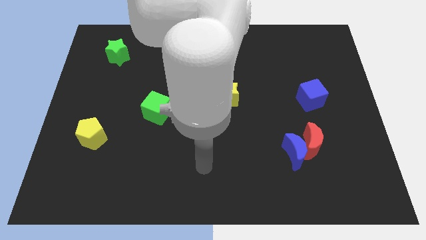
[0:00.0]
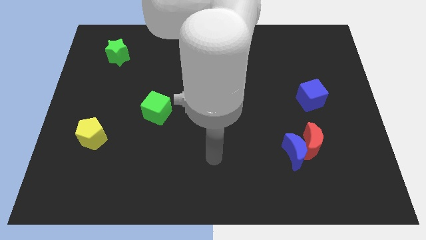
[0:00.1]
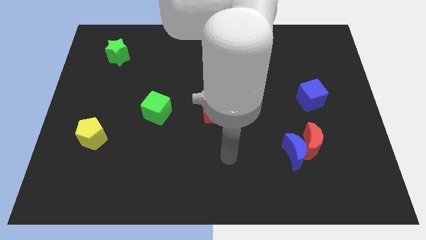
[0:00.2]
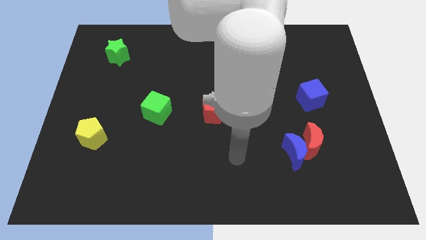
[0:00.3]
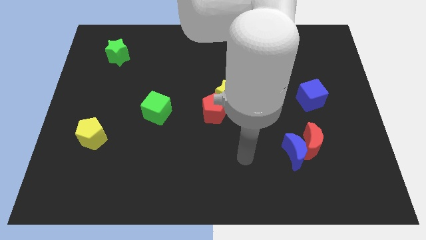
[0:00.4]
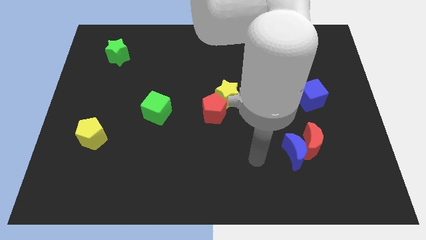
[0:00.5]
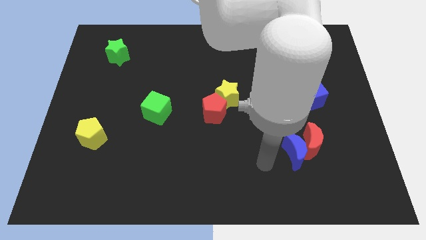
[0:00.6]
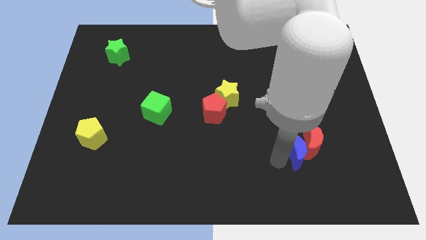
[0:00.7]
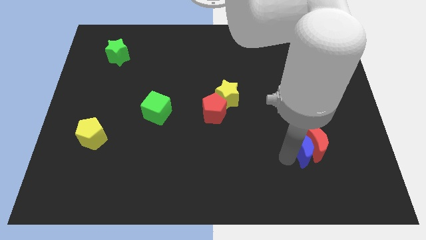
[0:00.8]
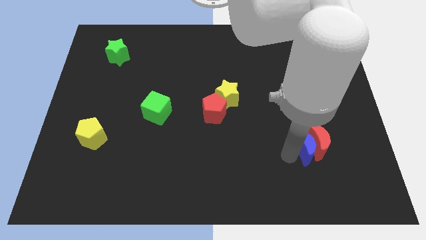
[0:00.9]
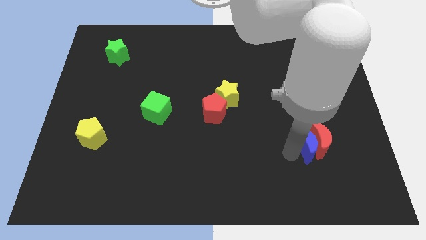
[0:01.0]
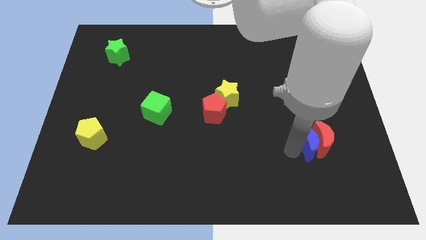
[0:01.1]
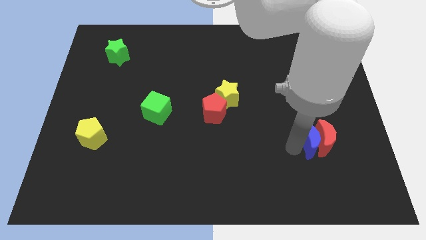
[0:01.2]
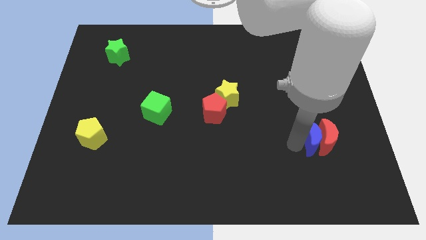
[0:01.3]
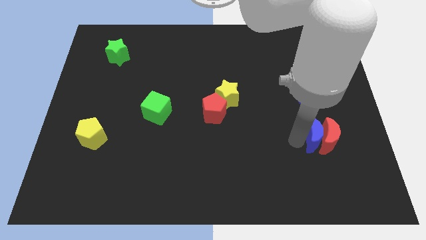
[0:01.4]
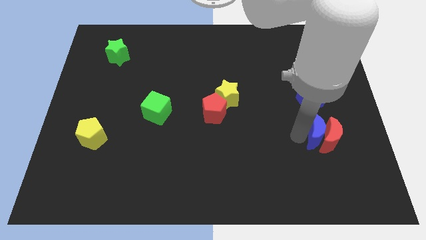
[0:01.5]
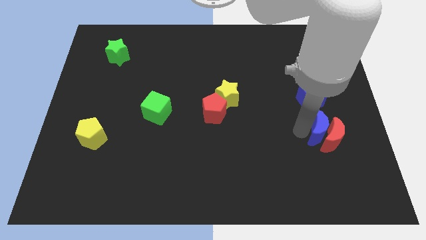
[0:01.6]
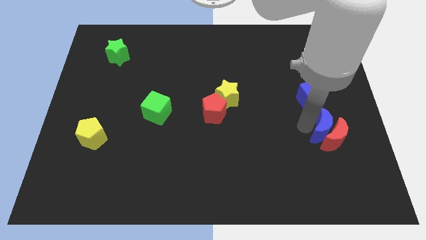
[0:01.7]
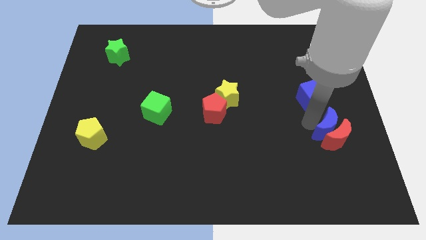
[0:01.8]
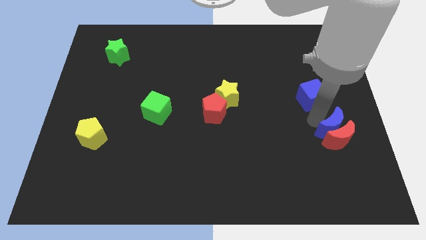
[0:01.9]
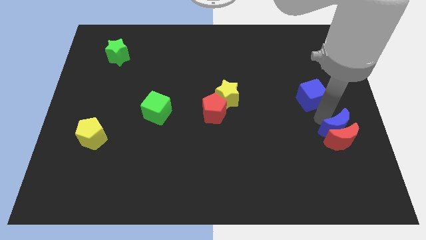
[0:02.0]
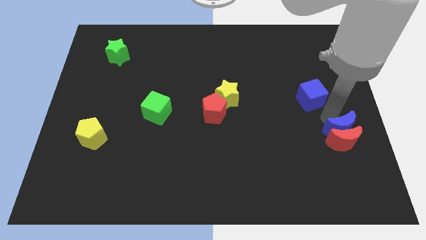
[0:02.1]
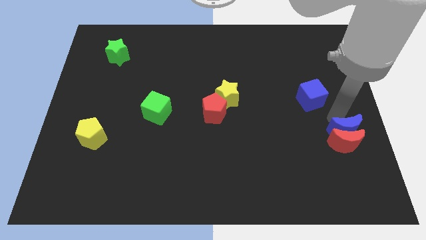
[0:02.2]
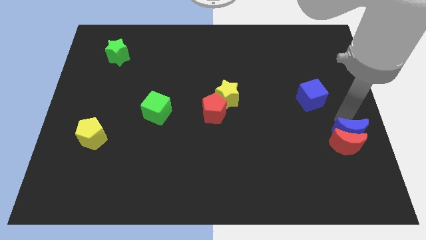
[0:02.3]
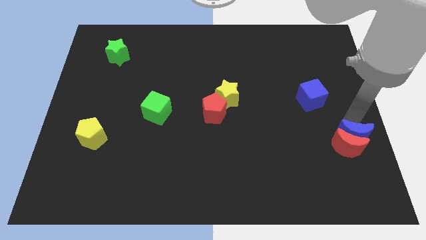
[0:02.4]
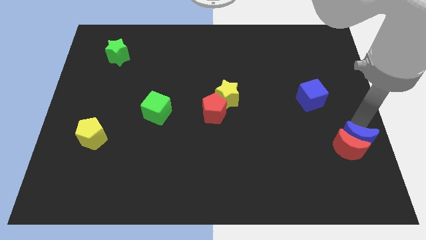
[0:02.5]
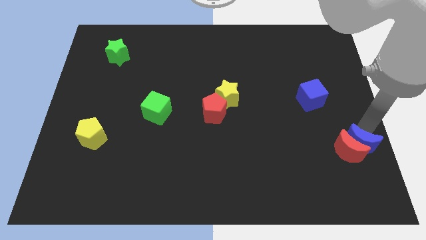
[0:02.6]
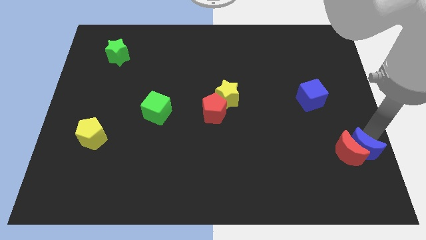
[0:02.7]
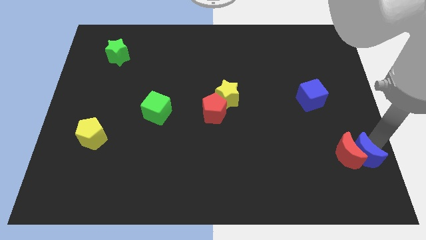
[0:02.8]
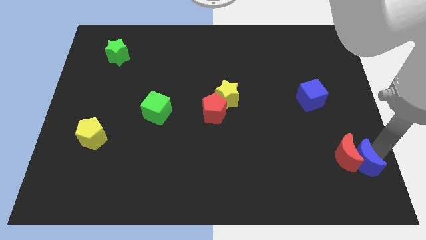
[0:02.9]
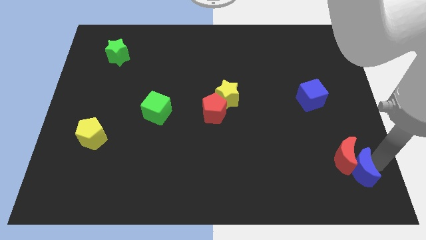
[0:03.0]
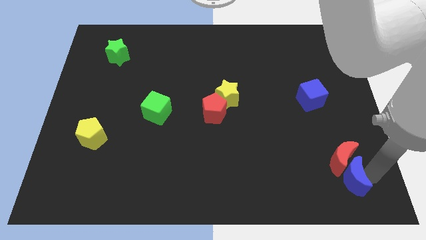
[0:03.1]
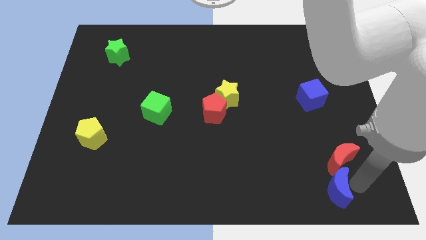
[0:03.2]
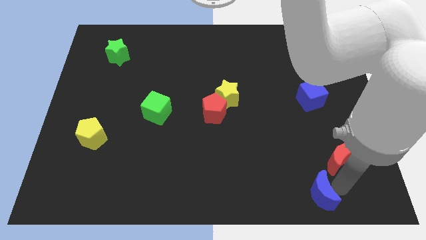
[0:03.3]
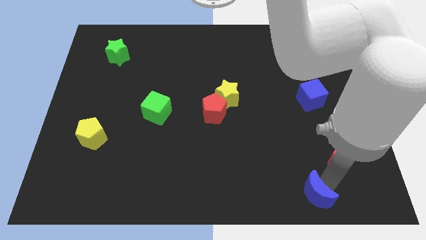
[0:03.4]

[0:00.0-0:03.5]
move the red moon away from the blue moon

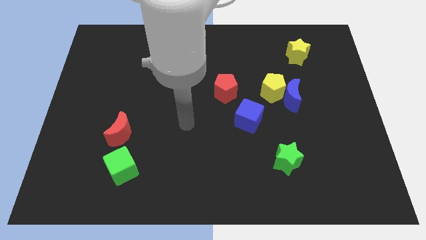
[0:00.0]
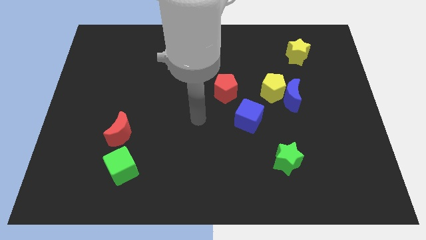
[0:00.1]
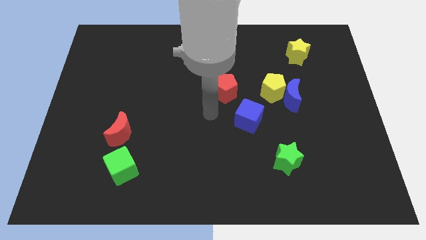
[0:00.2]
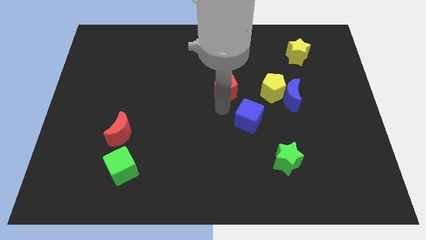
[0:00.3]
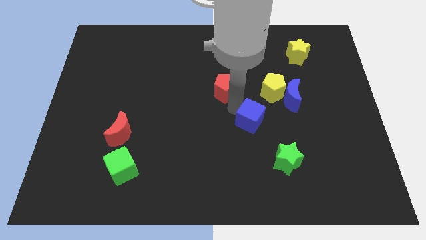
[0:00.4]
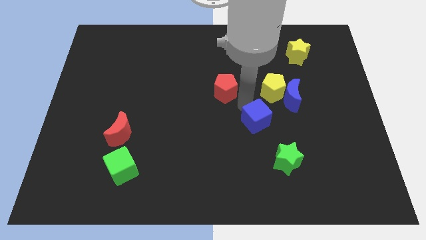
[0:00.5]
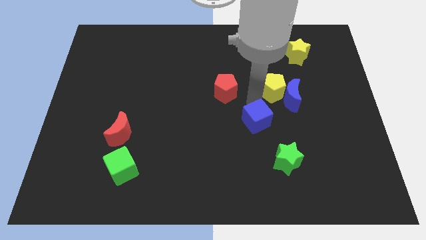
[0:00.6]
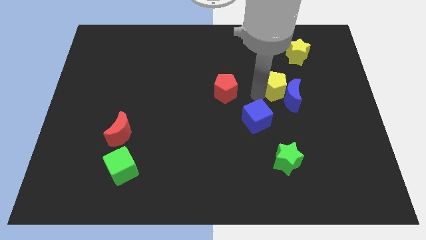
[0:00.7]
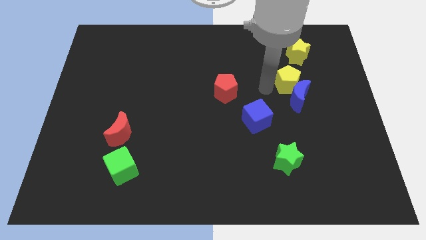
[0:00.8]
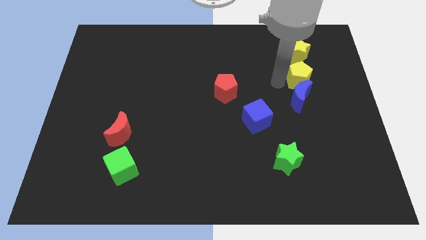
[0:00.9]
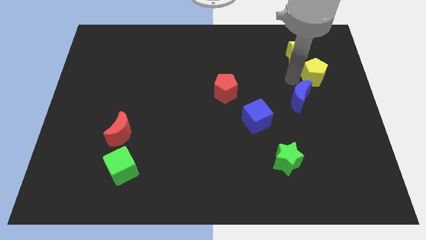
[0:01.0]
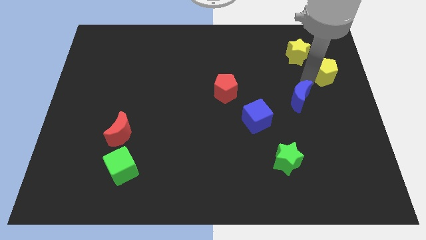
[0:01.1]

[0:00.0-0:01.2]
move the blue moon away from the yellow pentagon

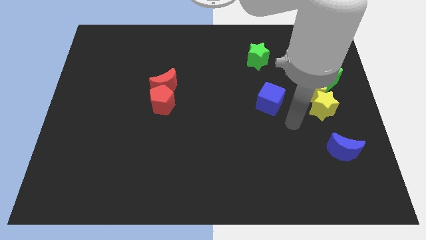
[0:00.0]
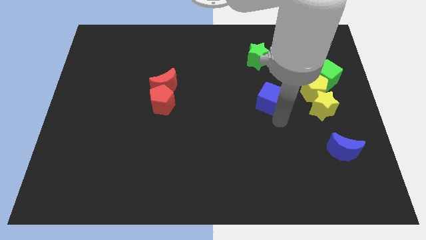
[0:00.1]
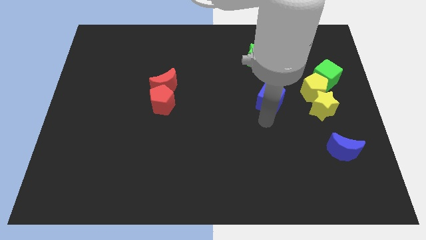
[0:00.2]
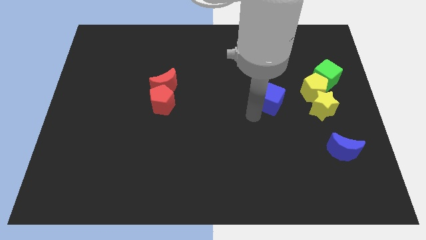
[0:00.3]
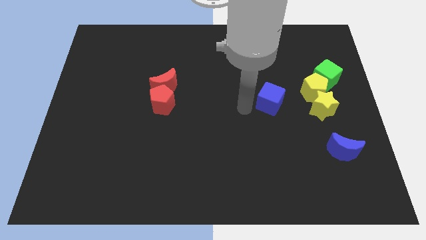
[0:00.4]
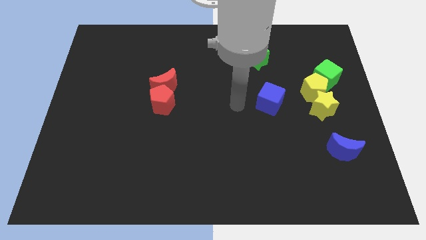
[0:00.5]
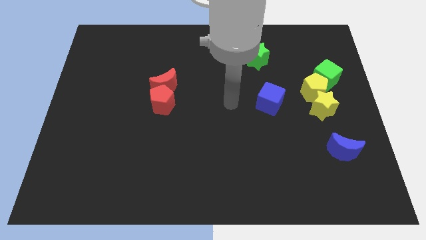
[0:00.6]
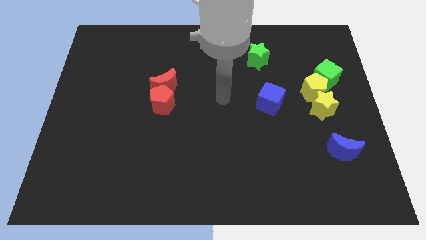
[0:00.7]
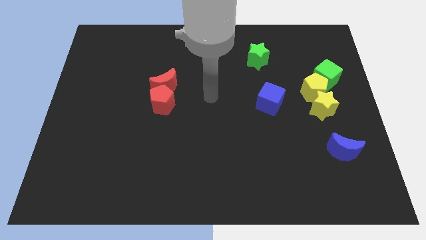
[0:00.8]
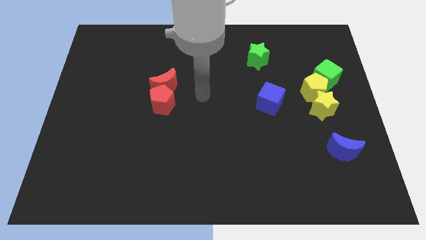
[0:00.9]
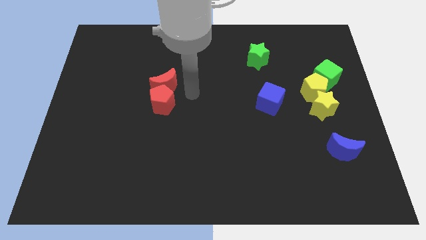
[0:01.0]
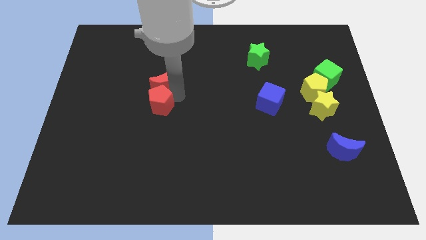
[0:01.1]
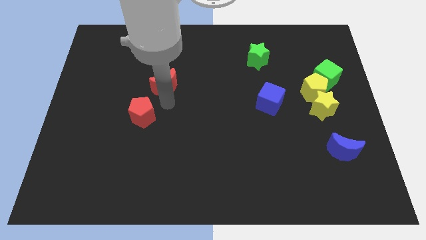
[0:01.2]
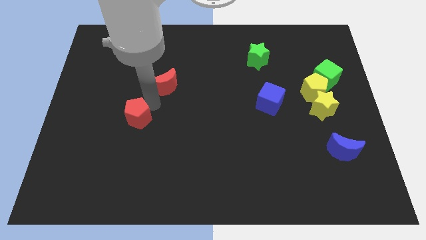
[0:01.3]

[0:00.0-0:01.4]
separate the red moon from the red pentagon

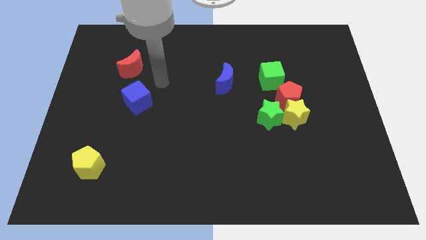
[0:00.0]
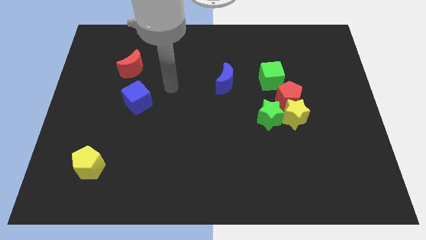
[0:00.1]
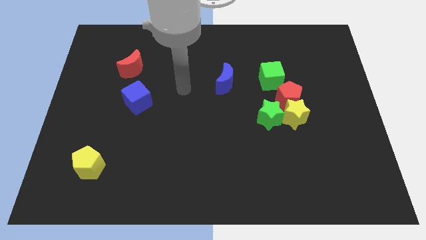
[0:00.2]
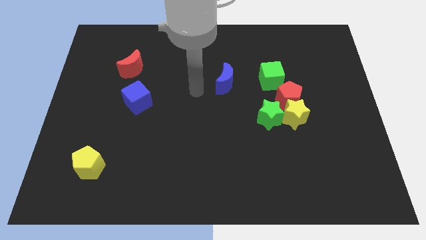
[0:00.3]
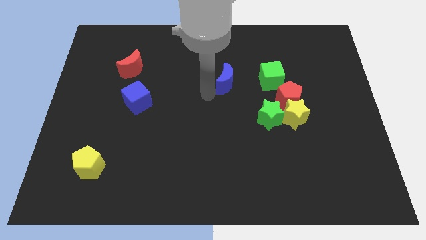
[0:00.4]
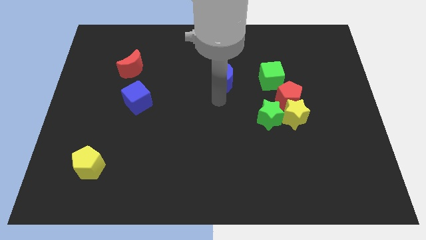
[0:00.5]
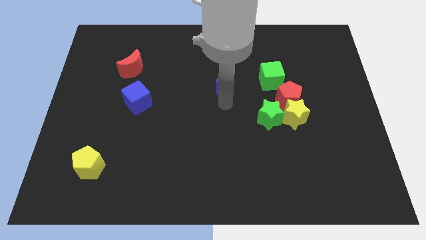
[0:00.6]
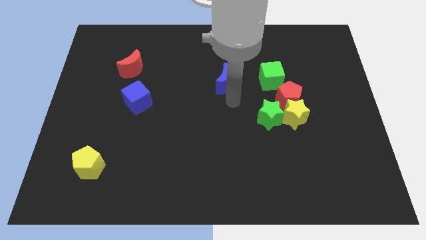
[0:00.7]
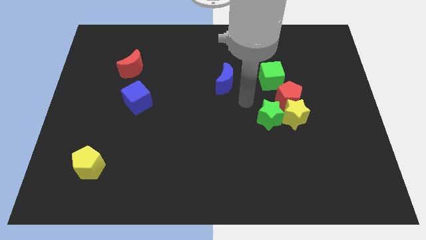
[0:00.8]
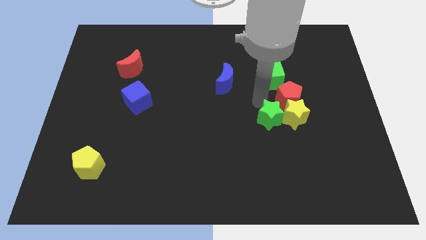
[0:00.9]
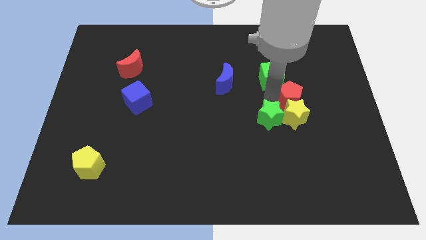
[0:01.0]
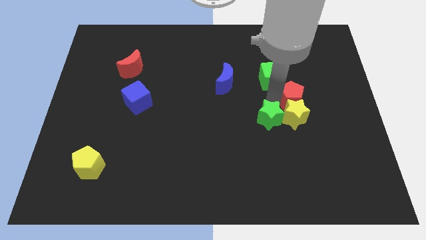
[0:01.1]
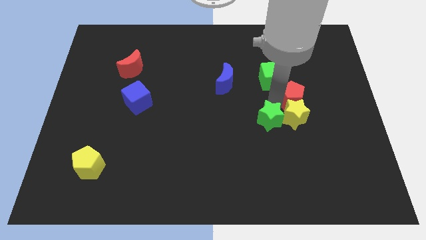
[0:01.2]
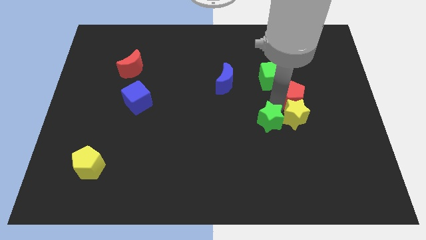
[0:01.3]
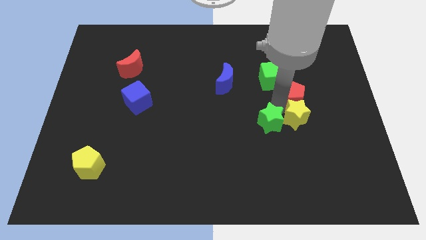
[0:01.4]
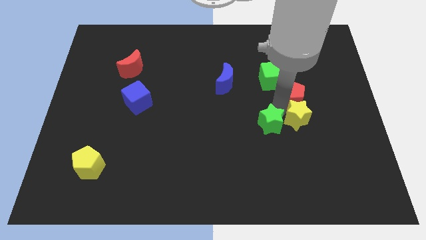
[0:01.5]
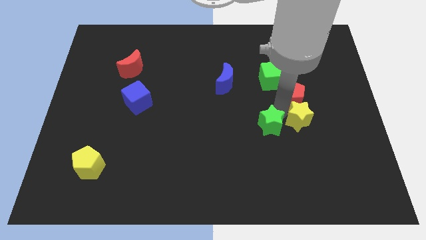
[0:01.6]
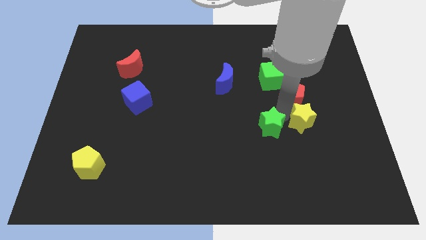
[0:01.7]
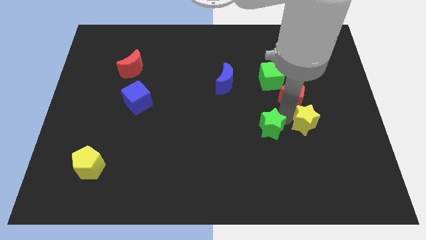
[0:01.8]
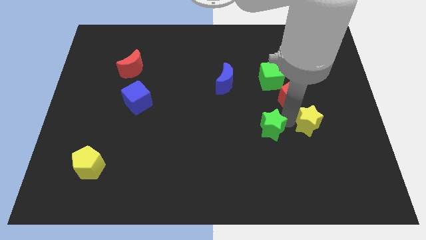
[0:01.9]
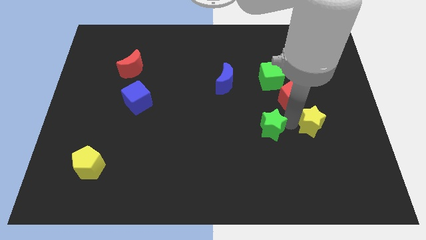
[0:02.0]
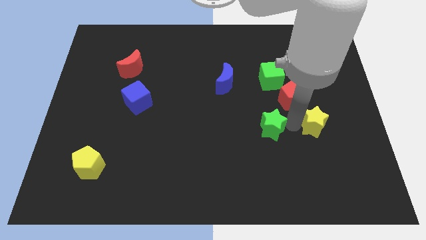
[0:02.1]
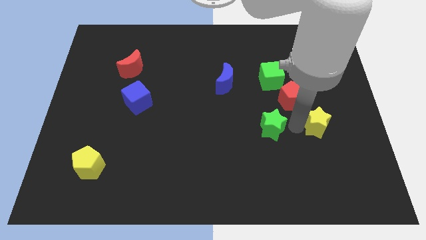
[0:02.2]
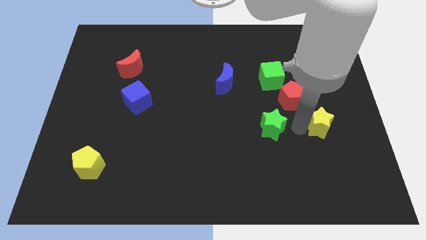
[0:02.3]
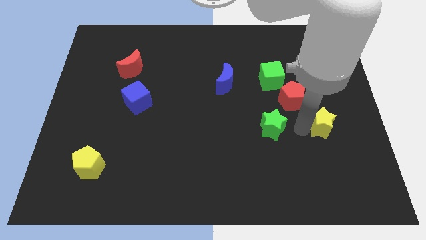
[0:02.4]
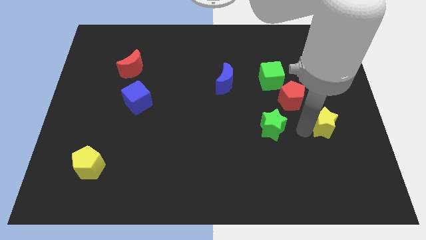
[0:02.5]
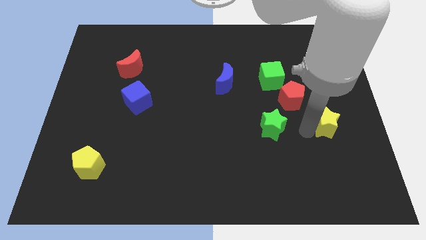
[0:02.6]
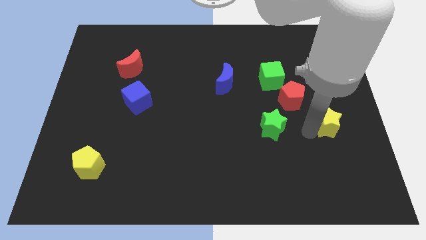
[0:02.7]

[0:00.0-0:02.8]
pull the yellow star apart from the red pentagon and green star

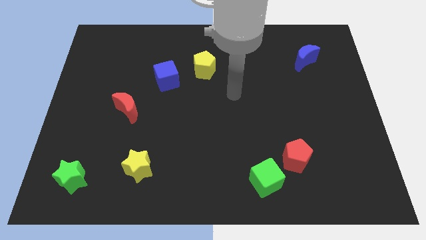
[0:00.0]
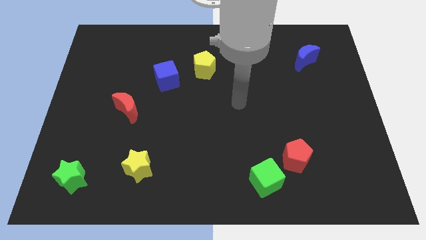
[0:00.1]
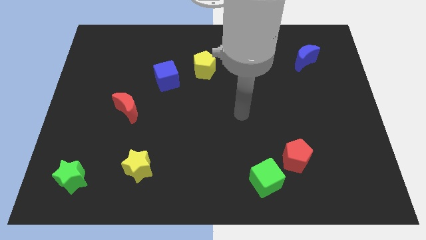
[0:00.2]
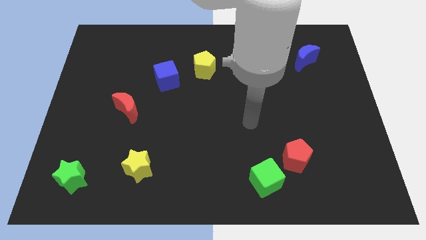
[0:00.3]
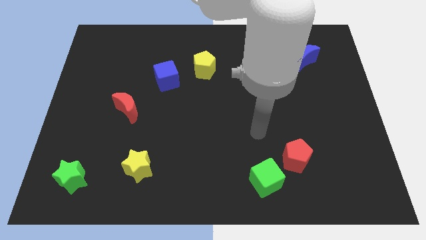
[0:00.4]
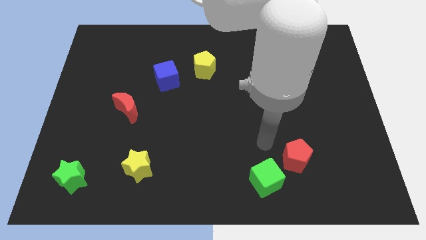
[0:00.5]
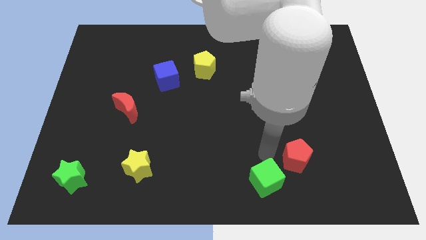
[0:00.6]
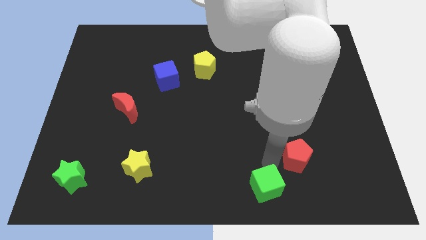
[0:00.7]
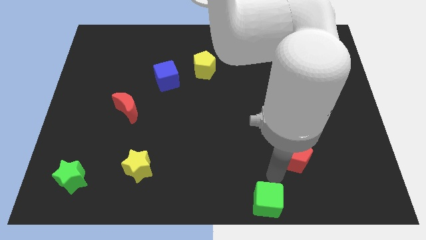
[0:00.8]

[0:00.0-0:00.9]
separate the red pentagon from the green cube
